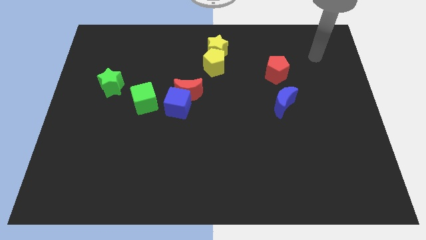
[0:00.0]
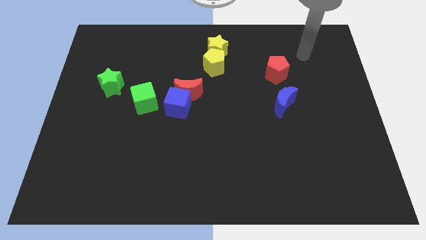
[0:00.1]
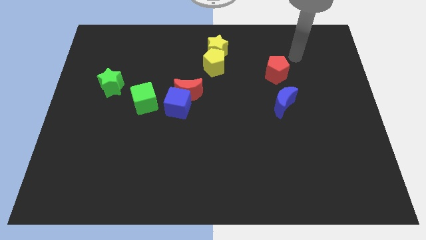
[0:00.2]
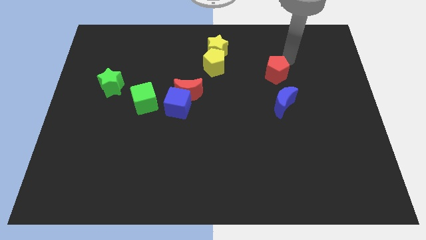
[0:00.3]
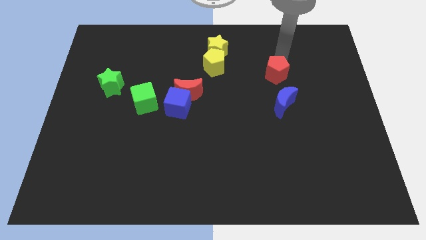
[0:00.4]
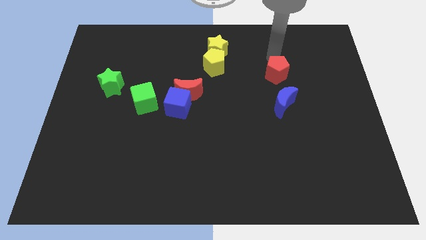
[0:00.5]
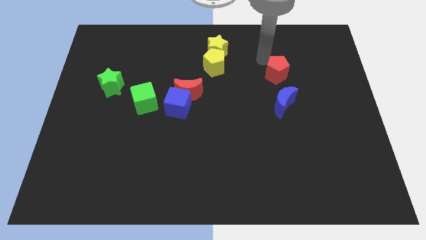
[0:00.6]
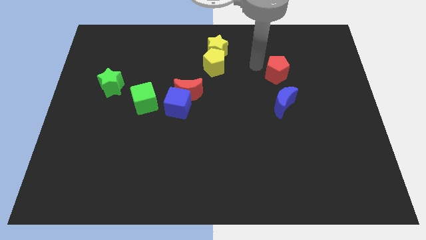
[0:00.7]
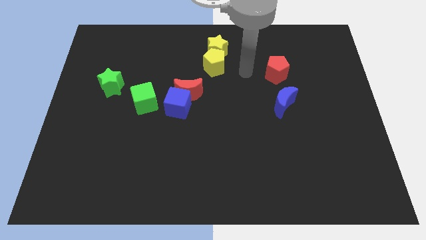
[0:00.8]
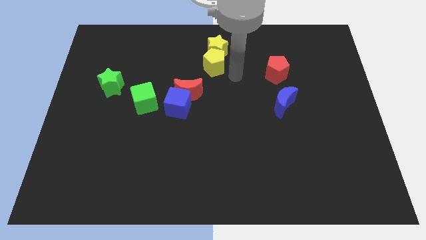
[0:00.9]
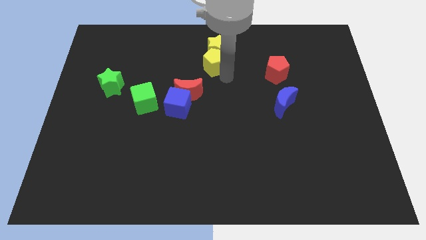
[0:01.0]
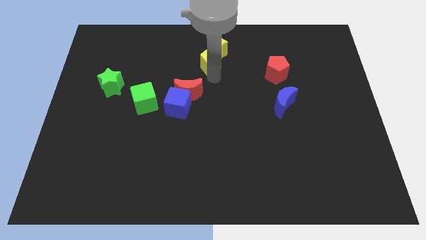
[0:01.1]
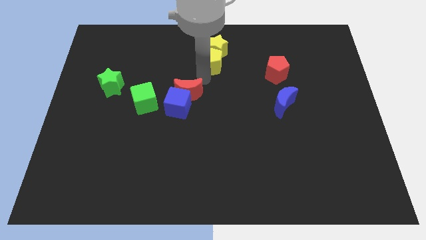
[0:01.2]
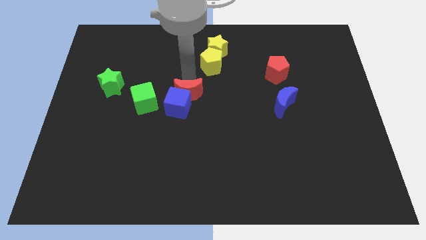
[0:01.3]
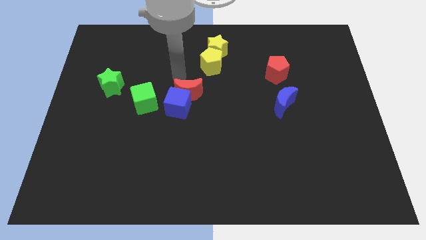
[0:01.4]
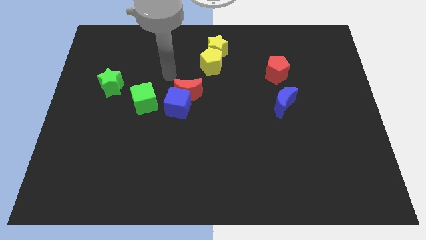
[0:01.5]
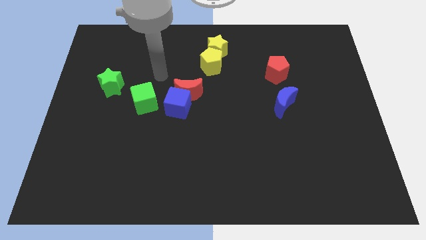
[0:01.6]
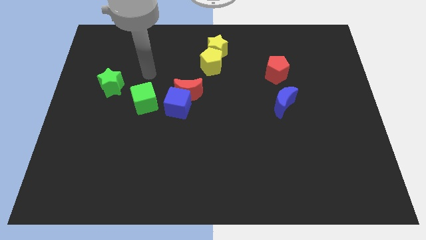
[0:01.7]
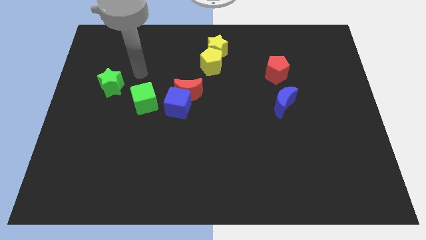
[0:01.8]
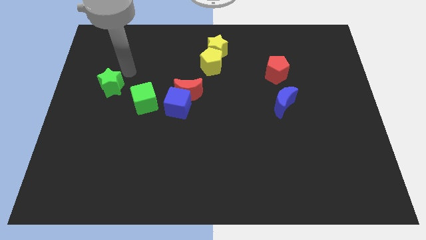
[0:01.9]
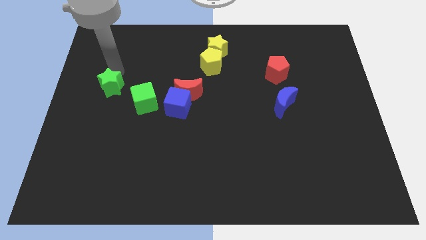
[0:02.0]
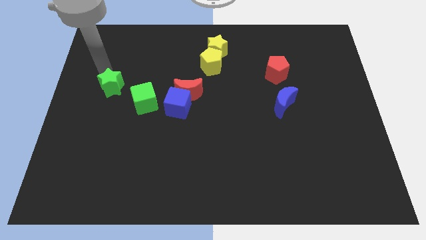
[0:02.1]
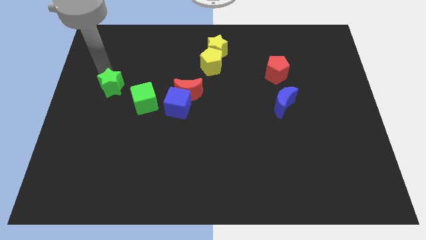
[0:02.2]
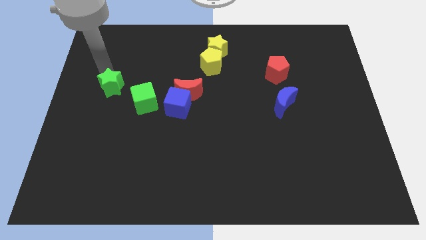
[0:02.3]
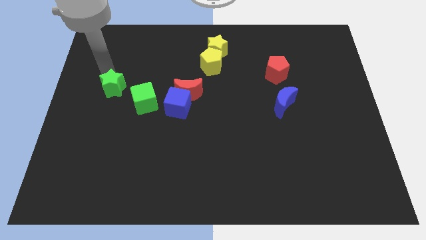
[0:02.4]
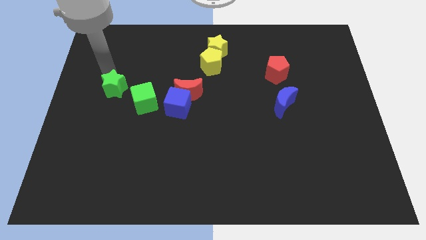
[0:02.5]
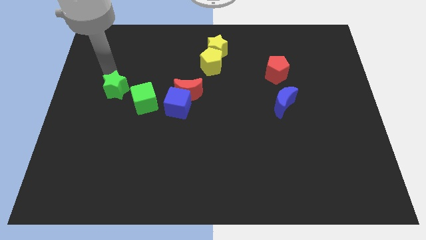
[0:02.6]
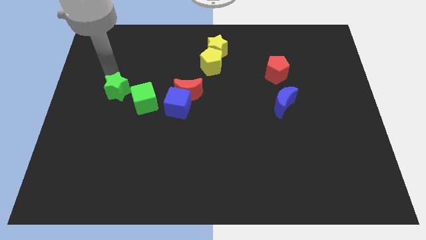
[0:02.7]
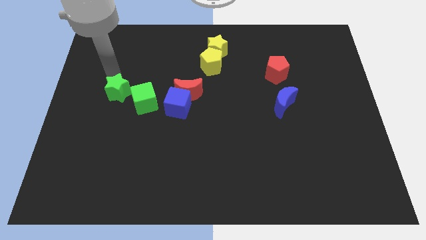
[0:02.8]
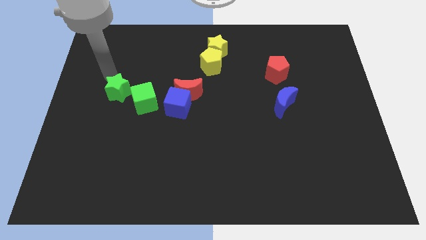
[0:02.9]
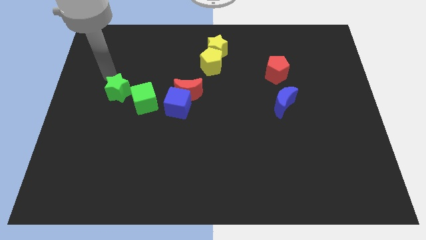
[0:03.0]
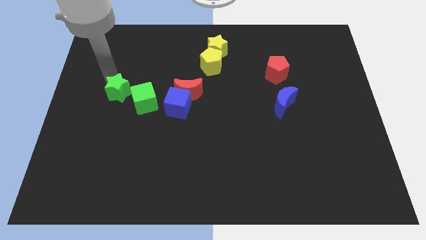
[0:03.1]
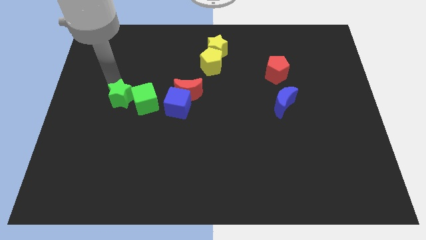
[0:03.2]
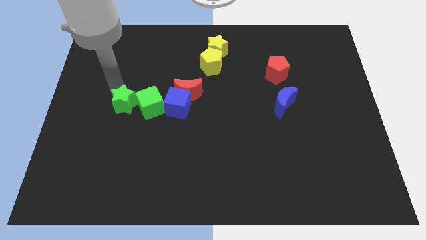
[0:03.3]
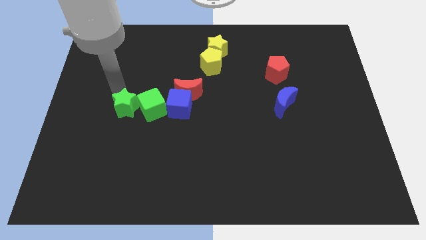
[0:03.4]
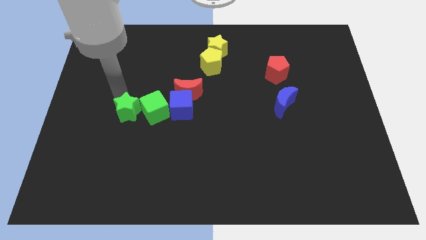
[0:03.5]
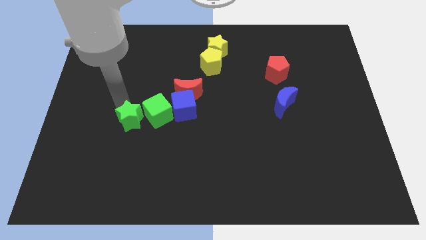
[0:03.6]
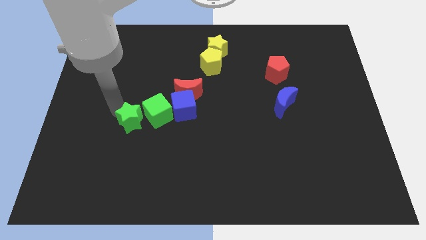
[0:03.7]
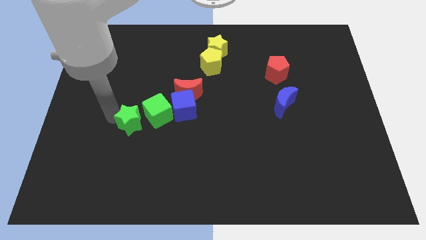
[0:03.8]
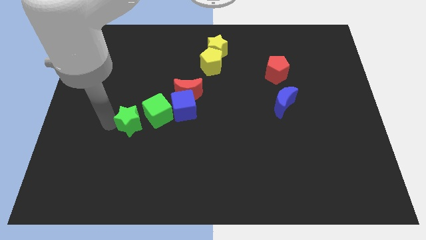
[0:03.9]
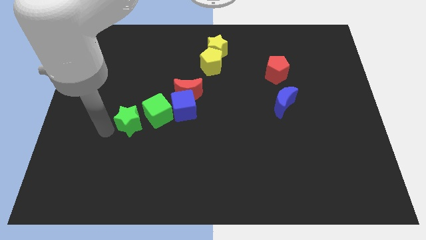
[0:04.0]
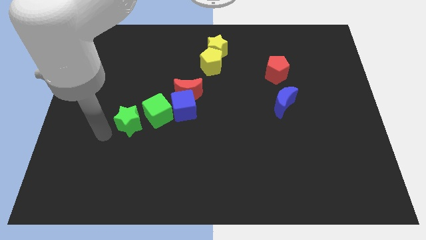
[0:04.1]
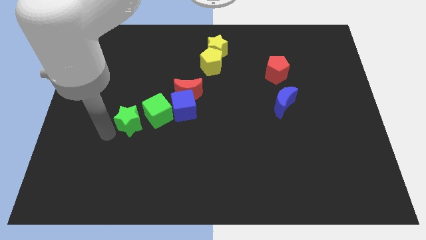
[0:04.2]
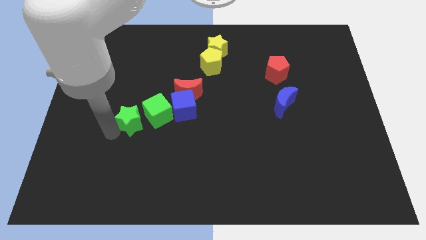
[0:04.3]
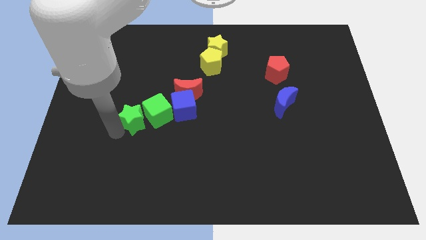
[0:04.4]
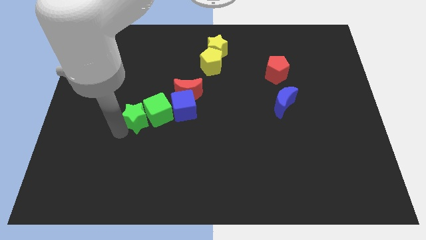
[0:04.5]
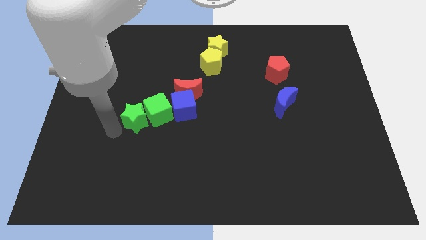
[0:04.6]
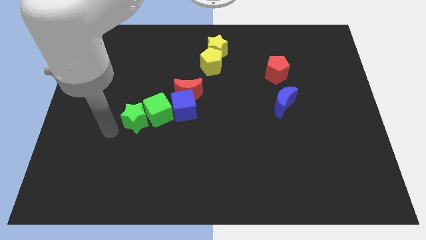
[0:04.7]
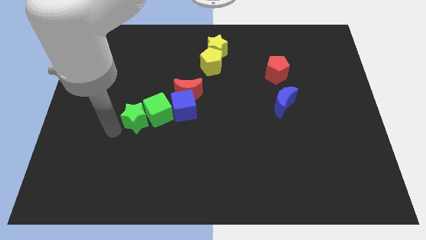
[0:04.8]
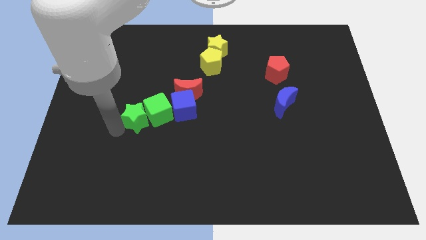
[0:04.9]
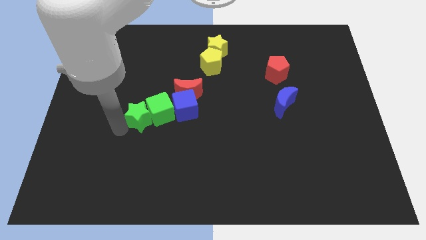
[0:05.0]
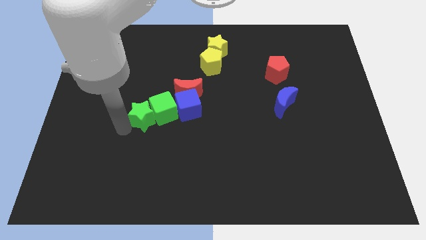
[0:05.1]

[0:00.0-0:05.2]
slide the green star diagonally down and to the left of the red moon

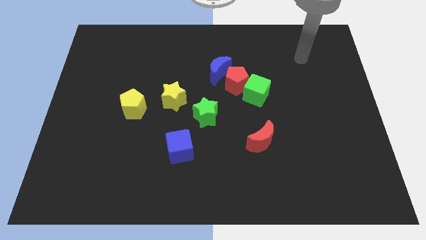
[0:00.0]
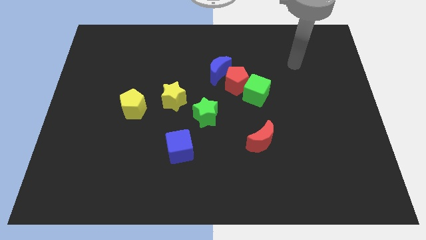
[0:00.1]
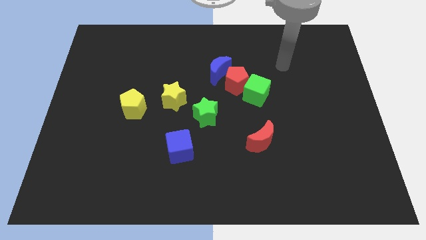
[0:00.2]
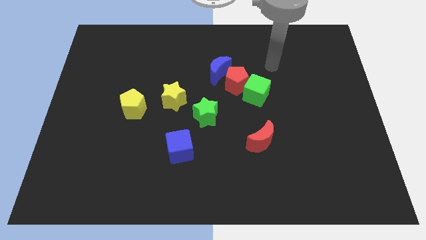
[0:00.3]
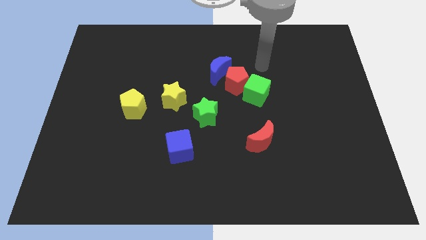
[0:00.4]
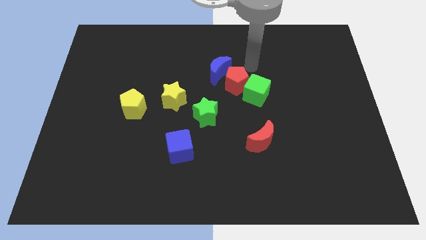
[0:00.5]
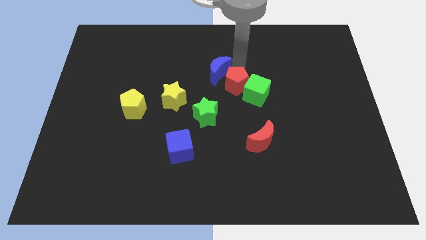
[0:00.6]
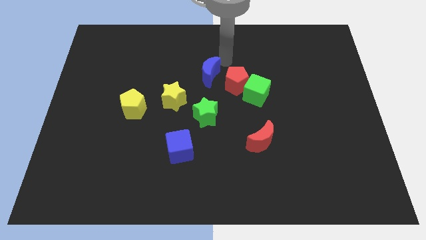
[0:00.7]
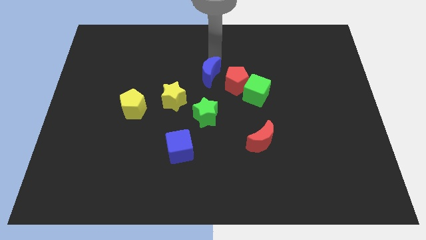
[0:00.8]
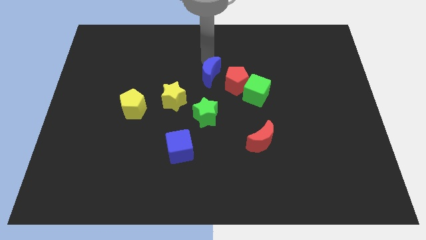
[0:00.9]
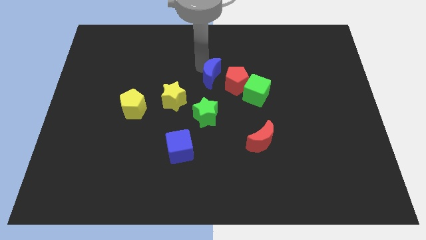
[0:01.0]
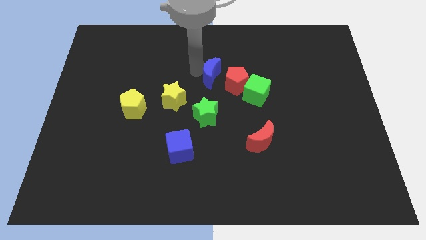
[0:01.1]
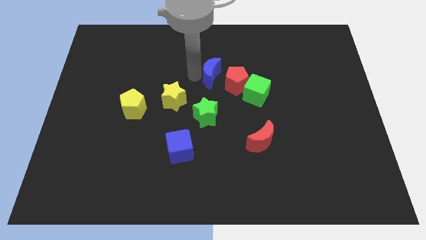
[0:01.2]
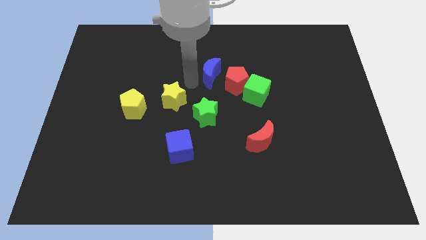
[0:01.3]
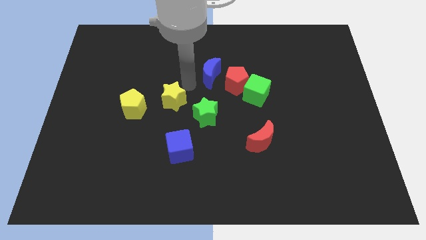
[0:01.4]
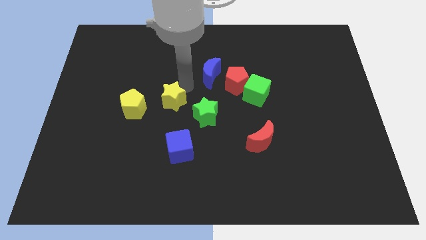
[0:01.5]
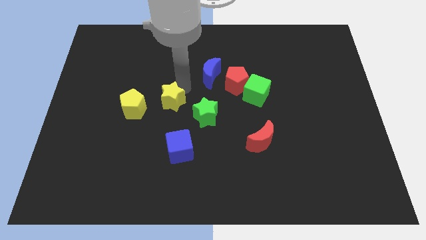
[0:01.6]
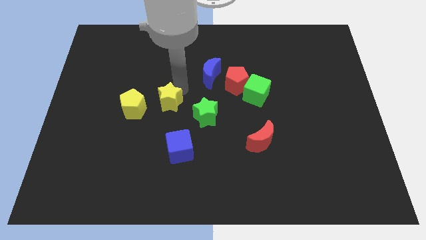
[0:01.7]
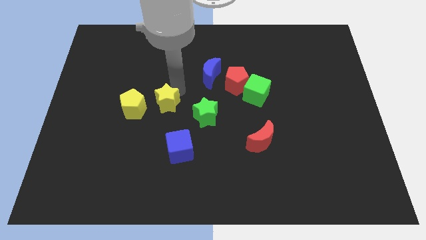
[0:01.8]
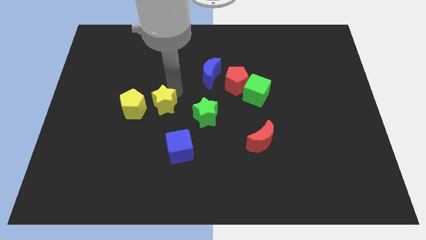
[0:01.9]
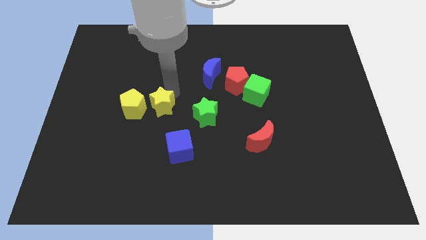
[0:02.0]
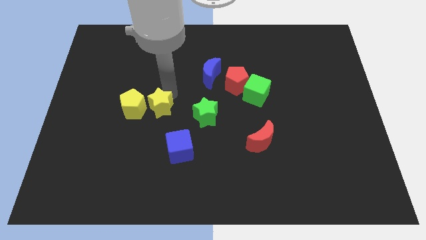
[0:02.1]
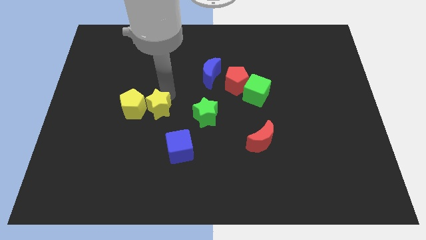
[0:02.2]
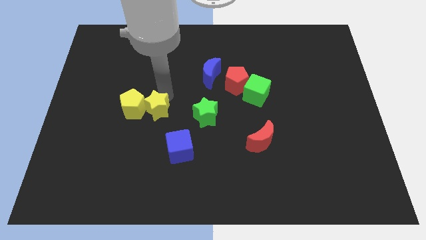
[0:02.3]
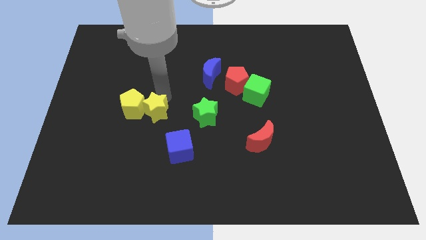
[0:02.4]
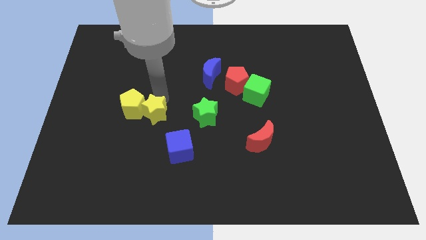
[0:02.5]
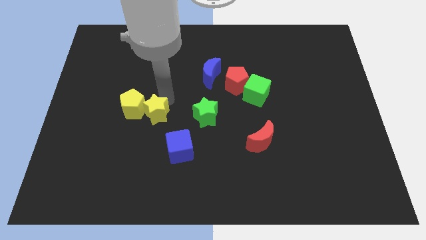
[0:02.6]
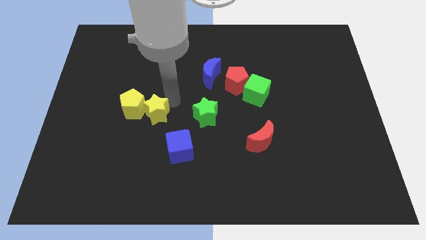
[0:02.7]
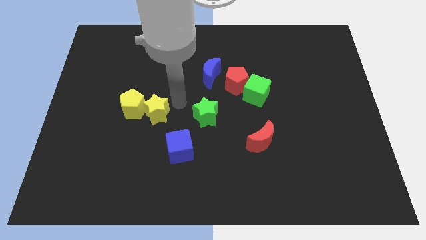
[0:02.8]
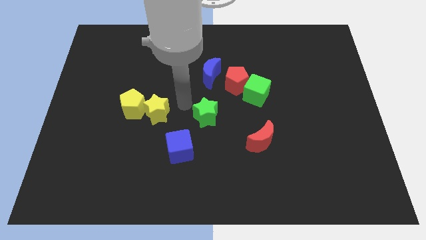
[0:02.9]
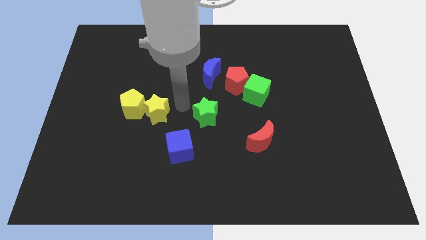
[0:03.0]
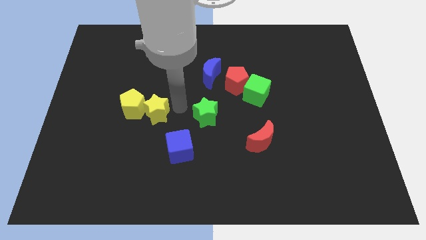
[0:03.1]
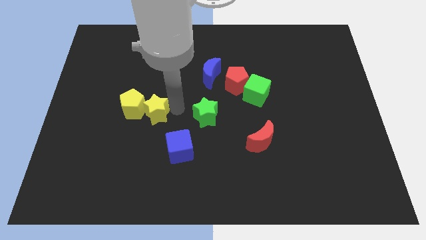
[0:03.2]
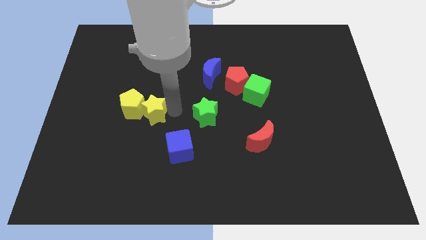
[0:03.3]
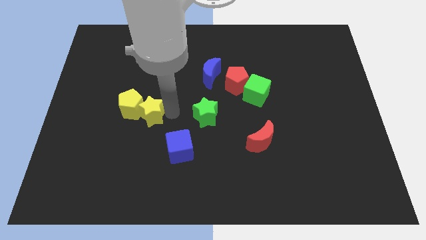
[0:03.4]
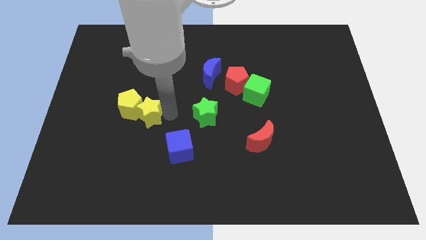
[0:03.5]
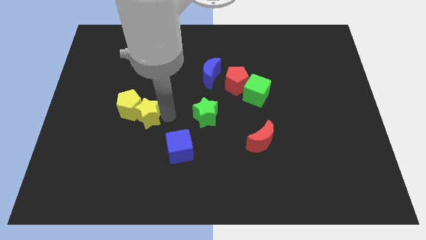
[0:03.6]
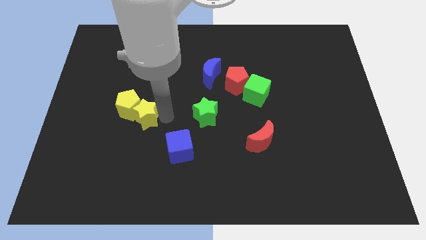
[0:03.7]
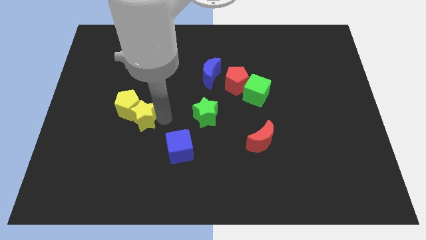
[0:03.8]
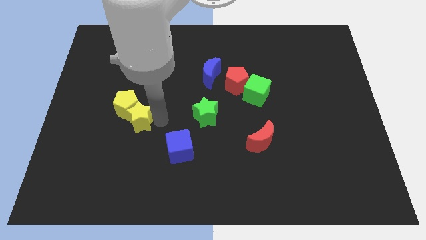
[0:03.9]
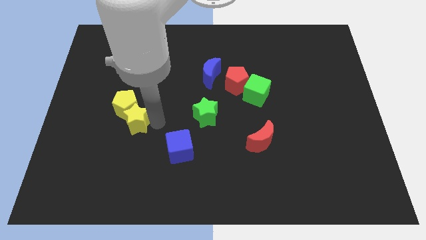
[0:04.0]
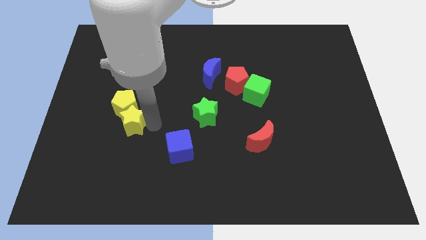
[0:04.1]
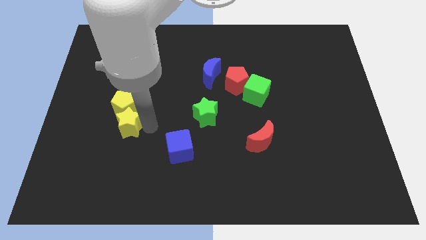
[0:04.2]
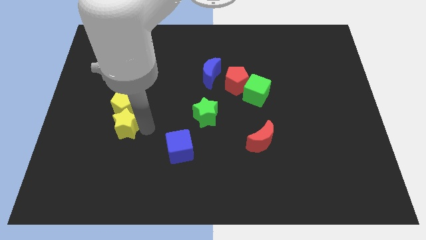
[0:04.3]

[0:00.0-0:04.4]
slide the yellow star to the bottom left of the yellow pentagon
